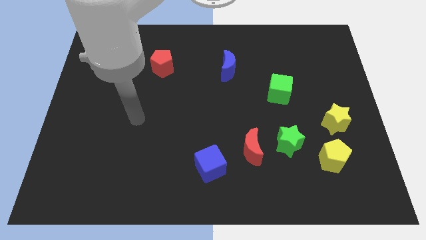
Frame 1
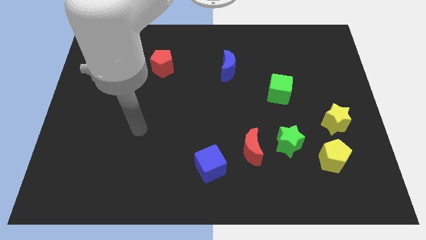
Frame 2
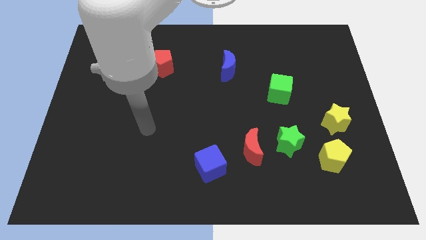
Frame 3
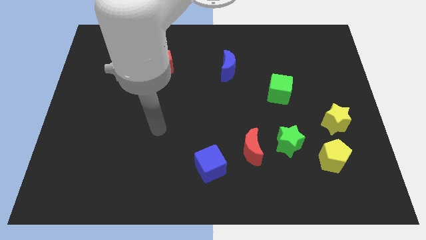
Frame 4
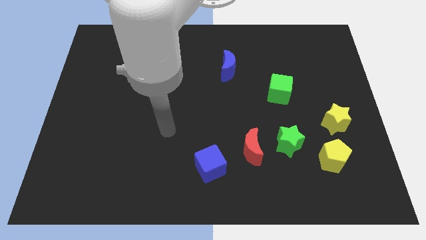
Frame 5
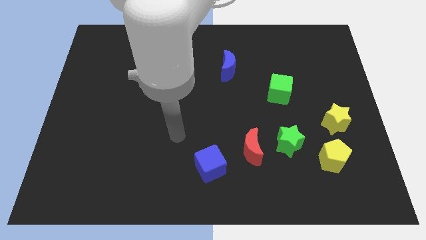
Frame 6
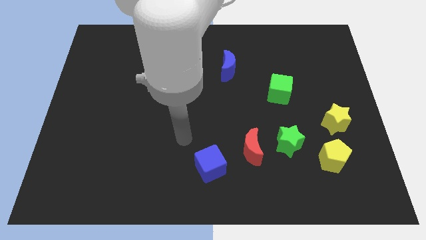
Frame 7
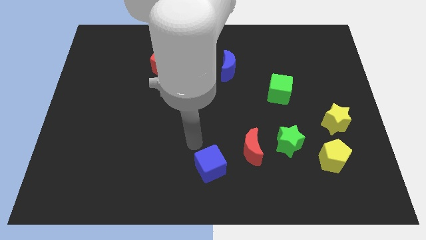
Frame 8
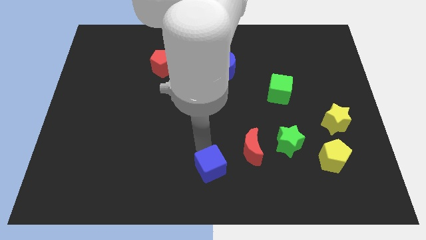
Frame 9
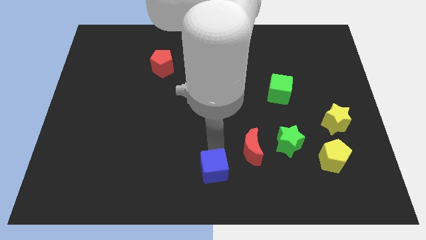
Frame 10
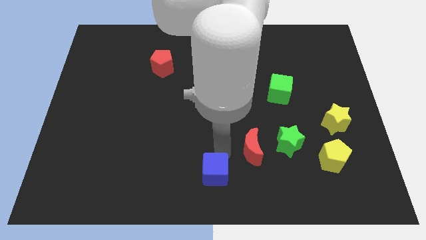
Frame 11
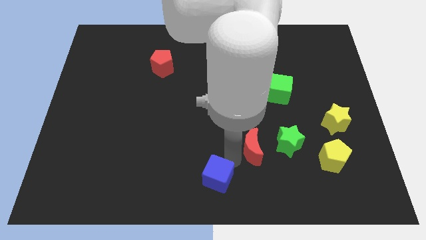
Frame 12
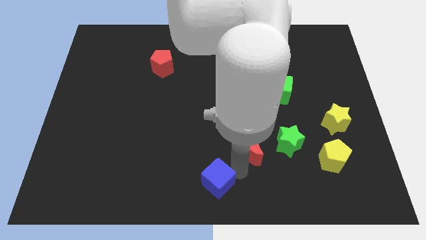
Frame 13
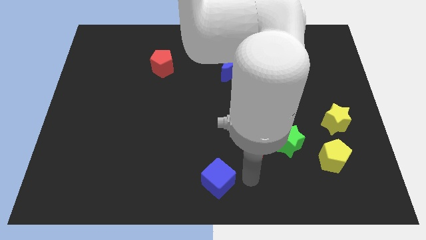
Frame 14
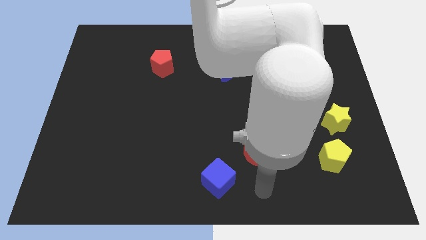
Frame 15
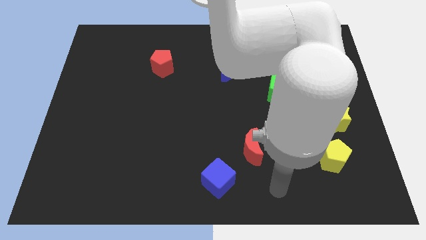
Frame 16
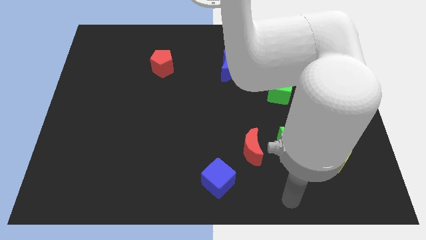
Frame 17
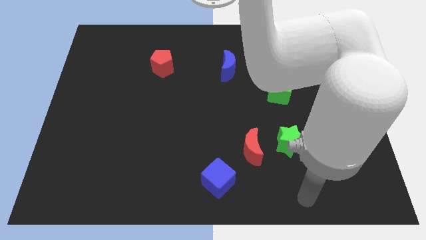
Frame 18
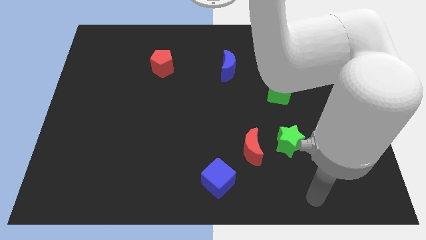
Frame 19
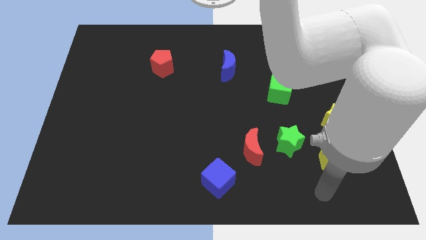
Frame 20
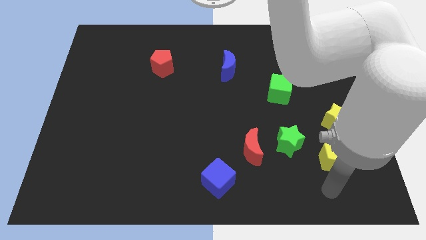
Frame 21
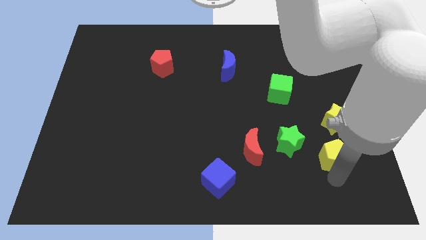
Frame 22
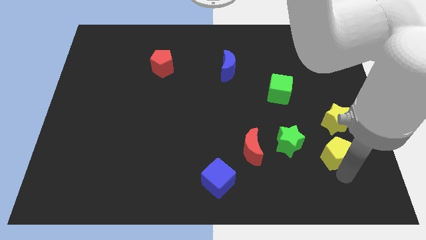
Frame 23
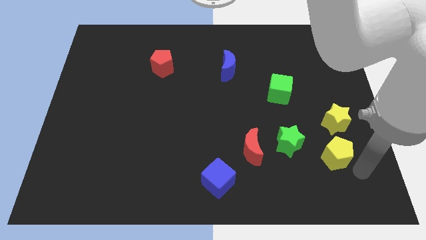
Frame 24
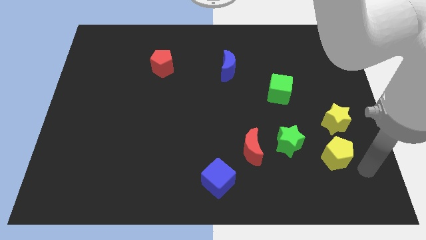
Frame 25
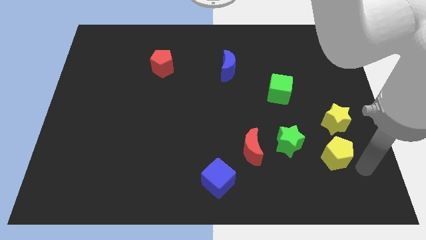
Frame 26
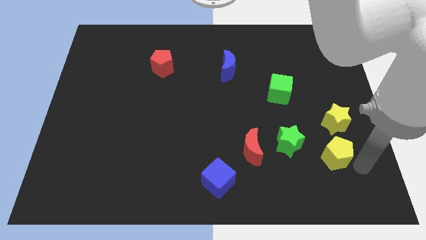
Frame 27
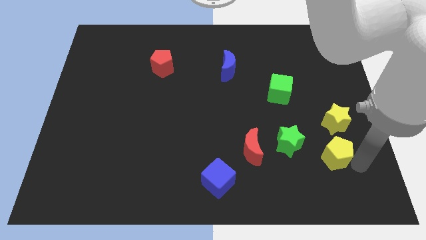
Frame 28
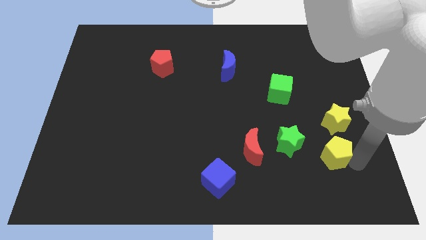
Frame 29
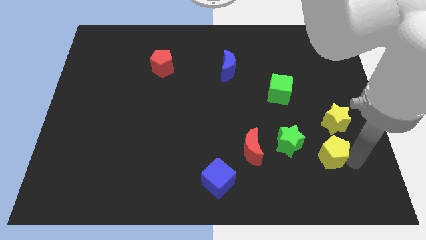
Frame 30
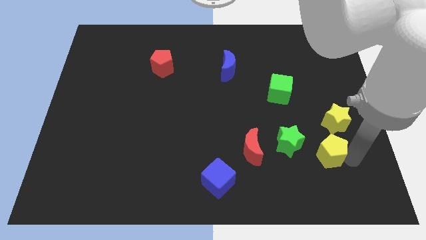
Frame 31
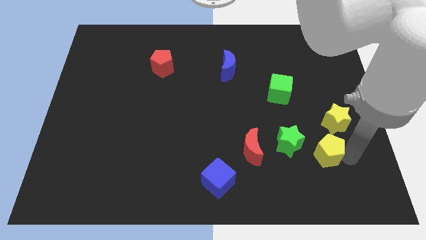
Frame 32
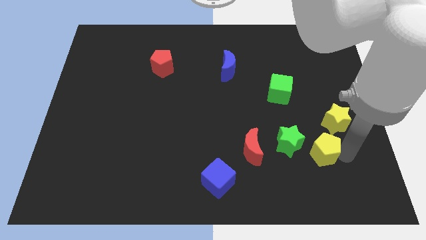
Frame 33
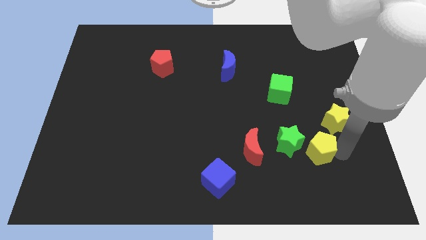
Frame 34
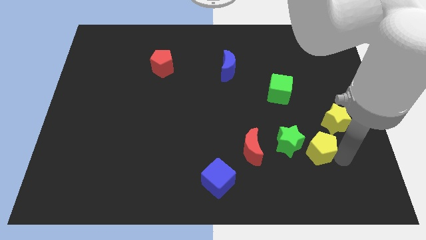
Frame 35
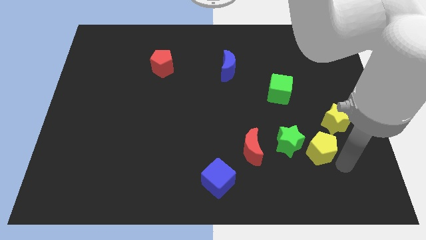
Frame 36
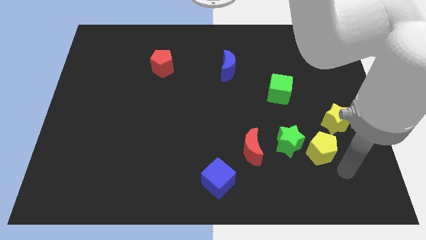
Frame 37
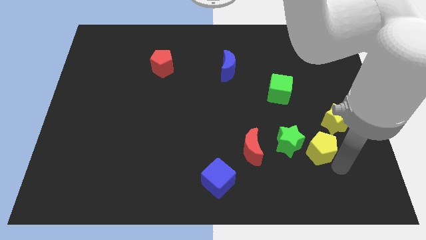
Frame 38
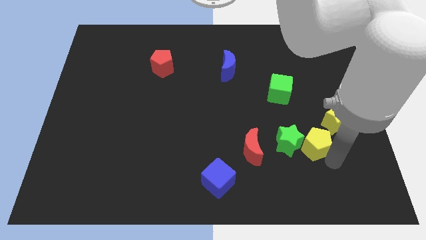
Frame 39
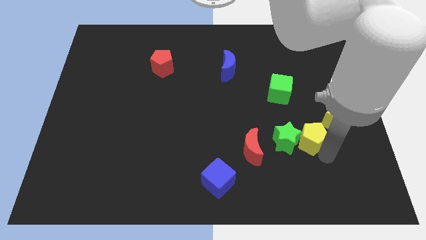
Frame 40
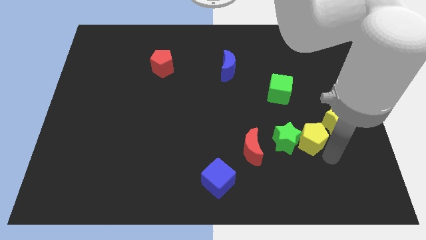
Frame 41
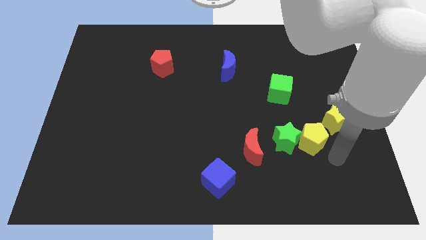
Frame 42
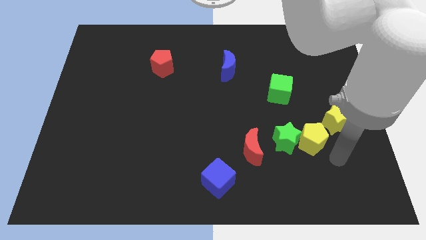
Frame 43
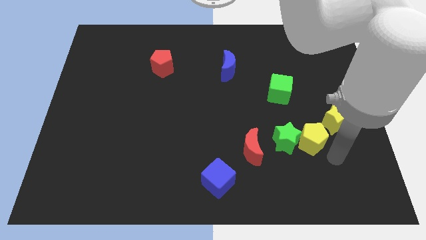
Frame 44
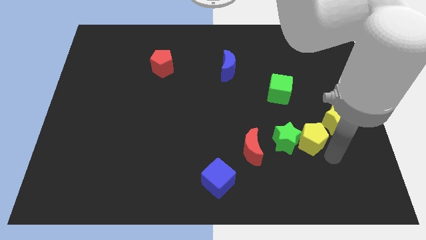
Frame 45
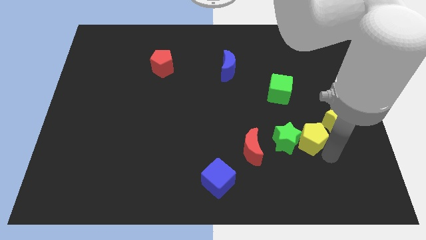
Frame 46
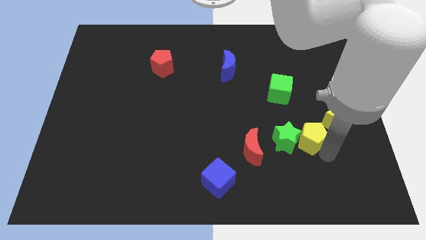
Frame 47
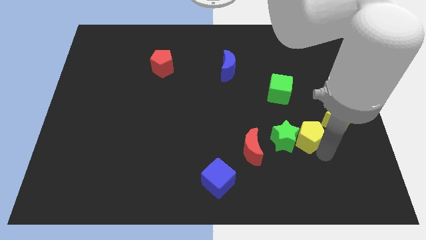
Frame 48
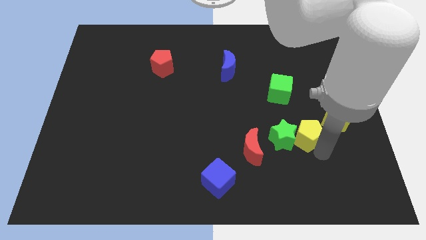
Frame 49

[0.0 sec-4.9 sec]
push the yellow pentagon a bit diagonally upwards and left

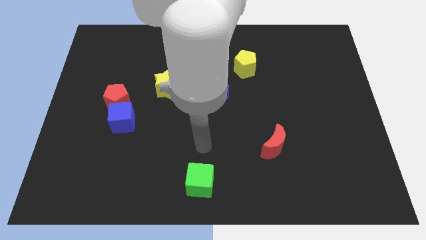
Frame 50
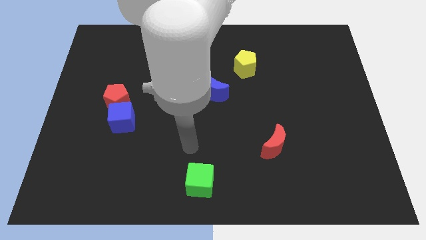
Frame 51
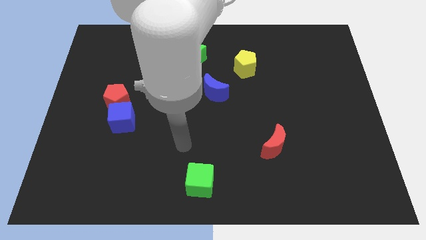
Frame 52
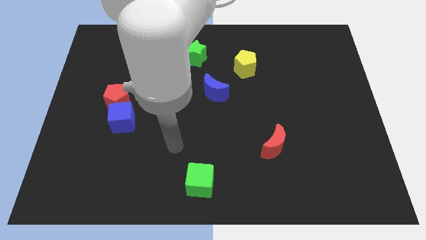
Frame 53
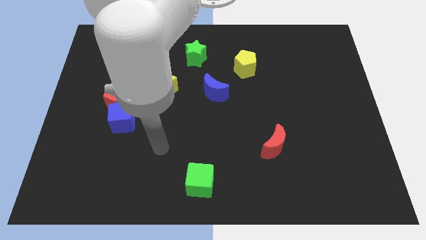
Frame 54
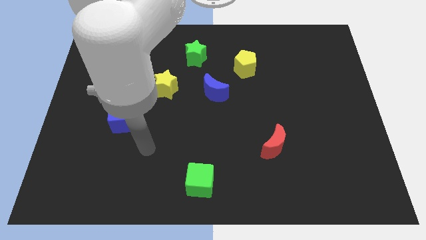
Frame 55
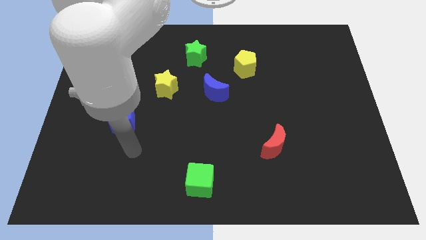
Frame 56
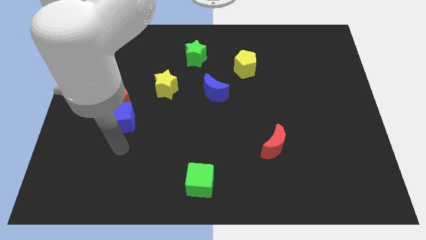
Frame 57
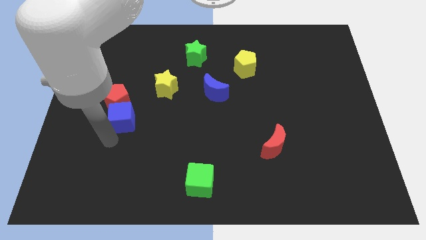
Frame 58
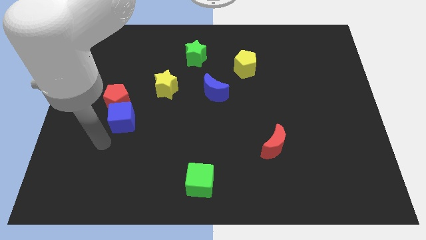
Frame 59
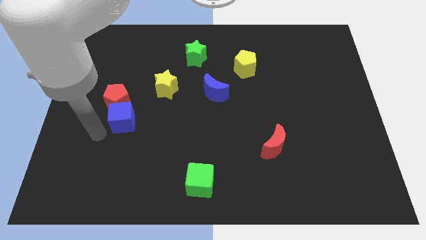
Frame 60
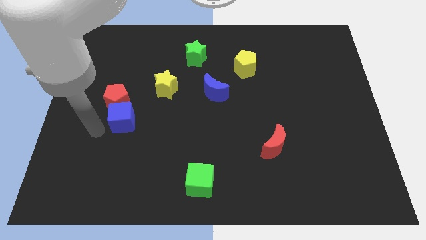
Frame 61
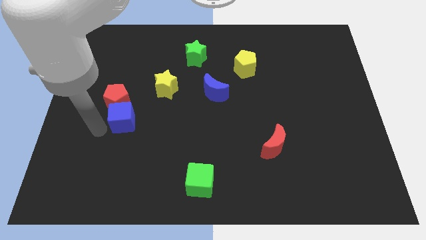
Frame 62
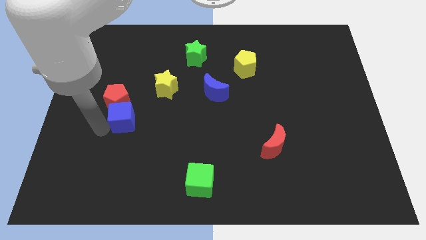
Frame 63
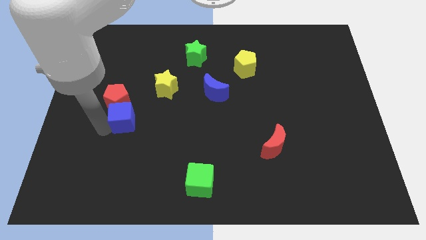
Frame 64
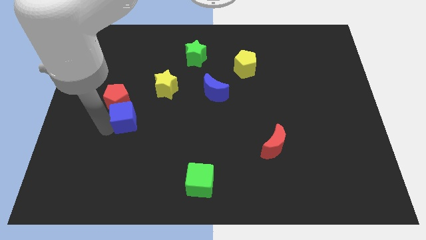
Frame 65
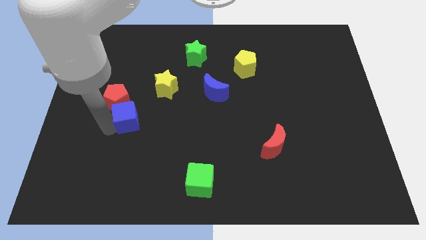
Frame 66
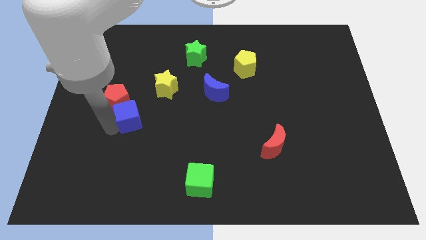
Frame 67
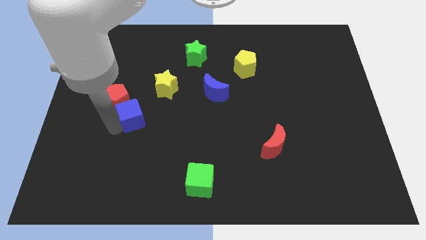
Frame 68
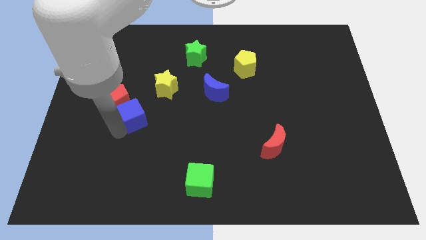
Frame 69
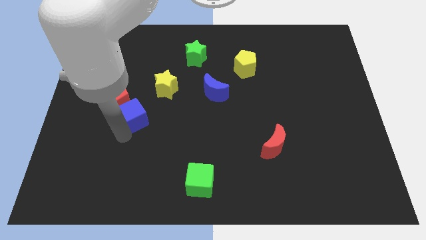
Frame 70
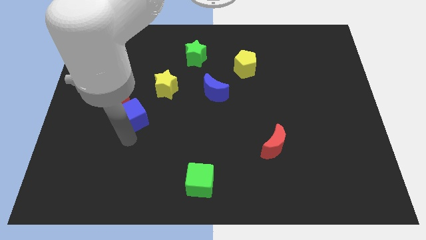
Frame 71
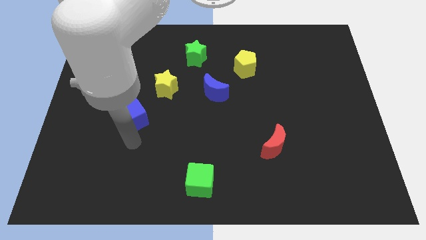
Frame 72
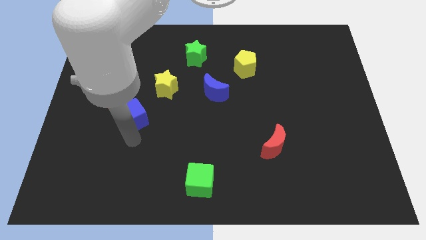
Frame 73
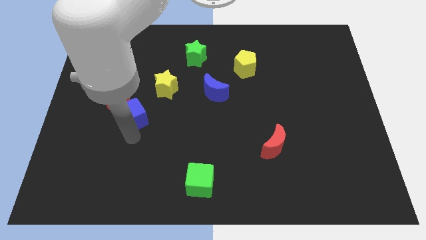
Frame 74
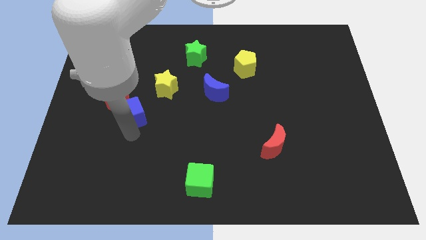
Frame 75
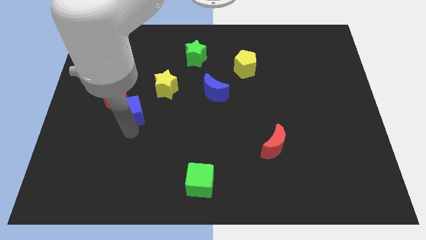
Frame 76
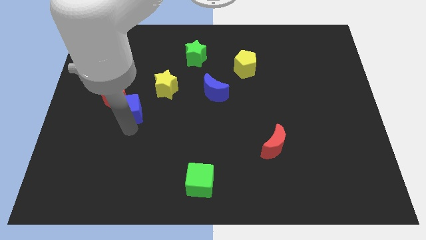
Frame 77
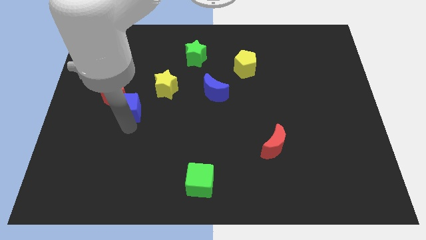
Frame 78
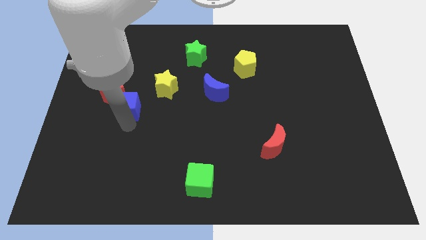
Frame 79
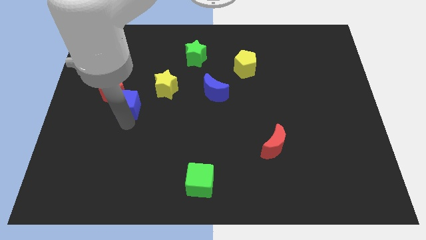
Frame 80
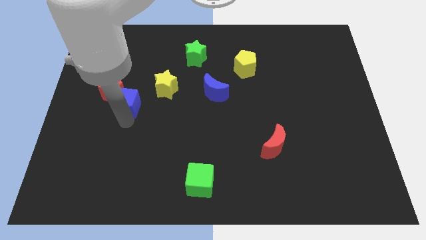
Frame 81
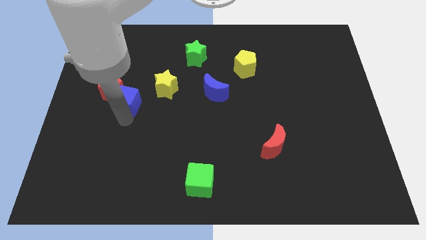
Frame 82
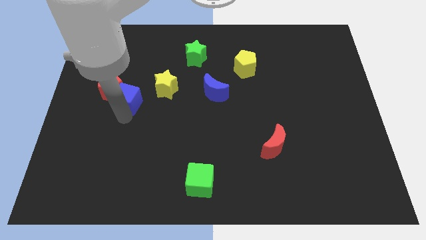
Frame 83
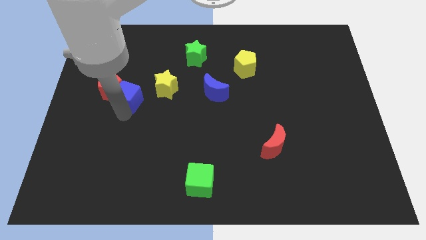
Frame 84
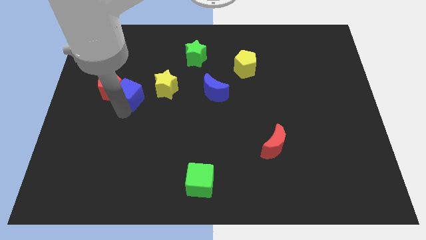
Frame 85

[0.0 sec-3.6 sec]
slightly slide the blue cube upwards
